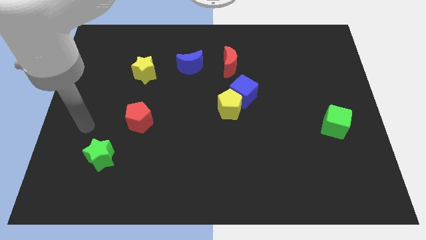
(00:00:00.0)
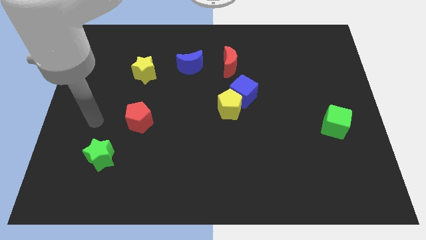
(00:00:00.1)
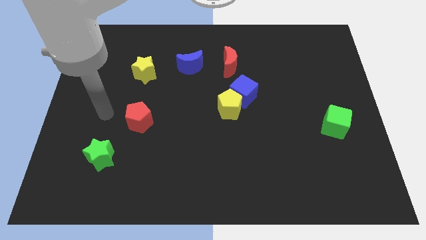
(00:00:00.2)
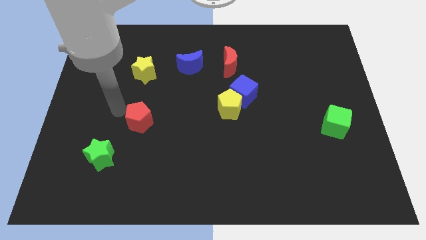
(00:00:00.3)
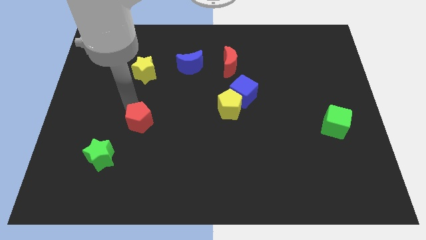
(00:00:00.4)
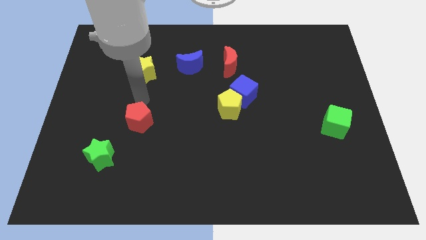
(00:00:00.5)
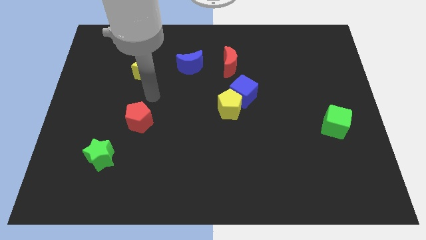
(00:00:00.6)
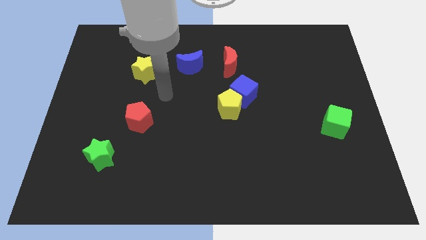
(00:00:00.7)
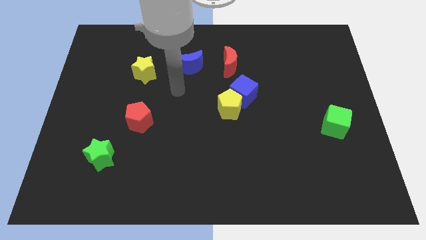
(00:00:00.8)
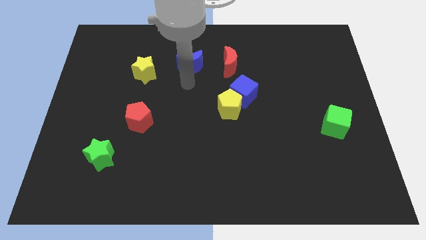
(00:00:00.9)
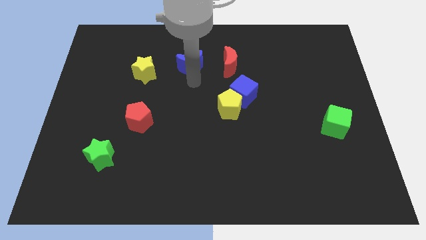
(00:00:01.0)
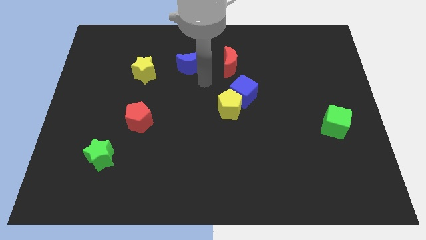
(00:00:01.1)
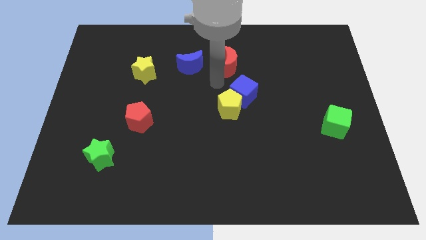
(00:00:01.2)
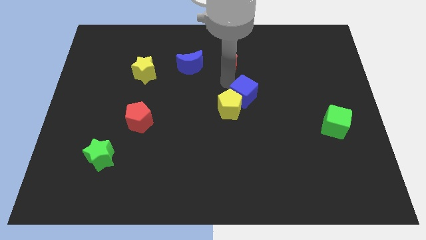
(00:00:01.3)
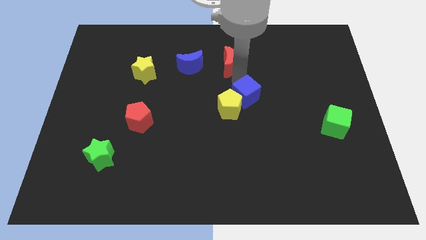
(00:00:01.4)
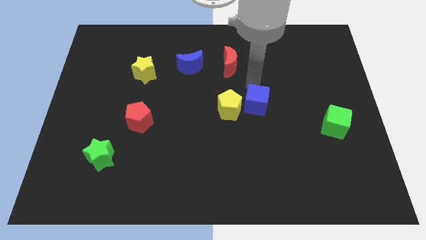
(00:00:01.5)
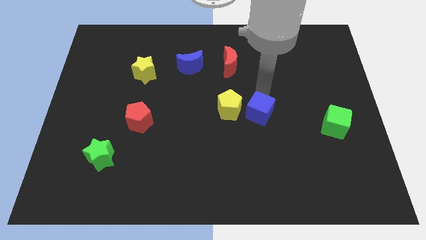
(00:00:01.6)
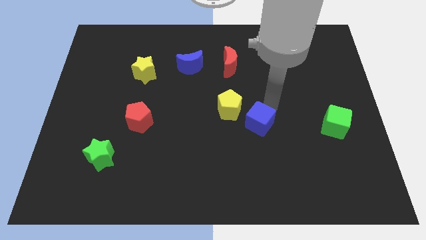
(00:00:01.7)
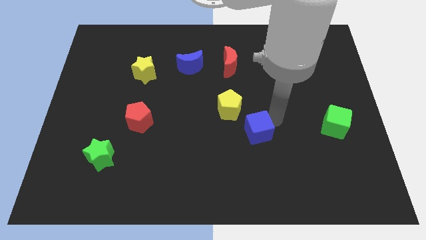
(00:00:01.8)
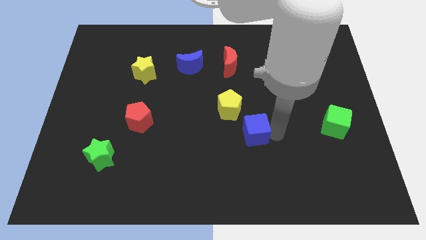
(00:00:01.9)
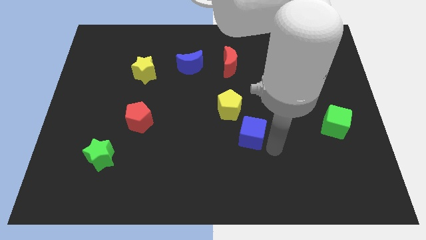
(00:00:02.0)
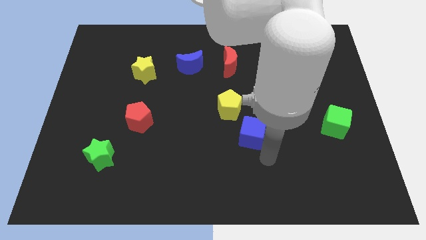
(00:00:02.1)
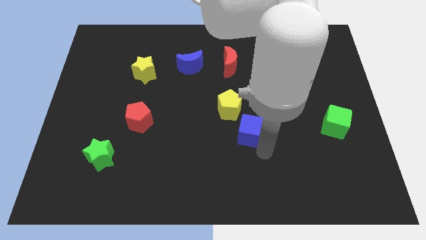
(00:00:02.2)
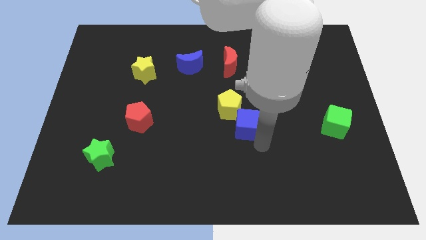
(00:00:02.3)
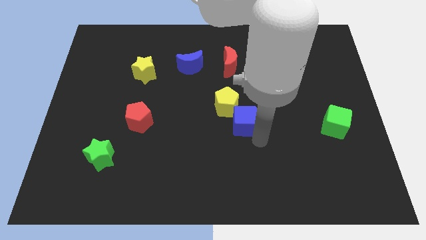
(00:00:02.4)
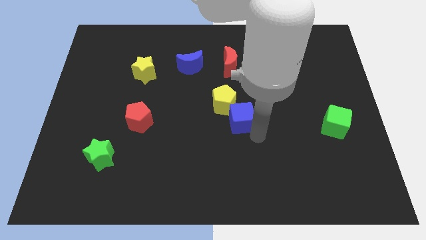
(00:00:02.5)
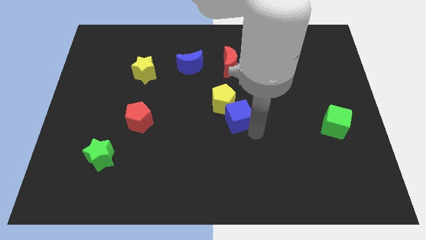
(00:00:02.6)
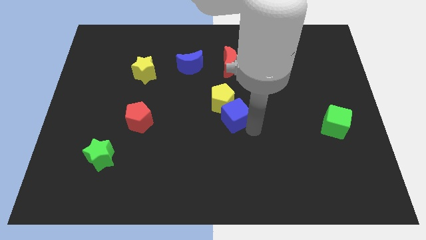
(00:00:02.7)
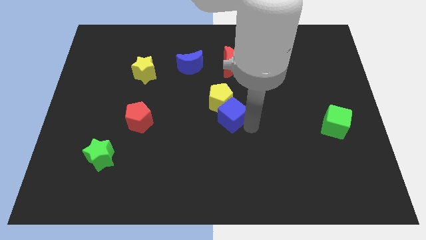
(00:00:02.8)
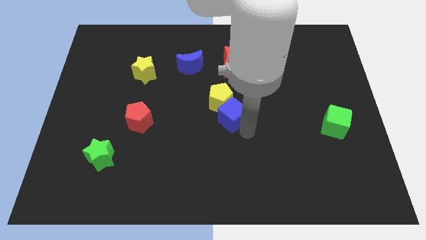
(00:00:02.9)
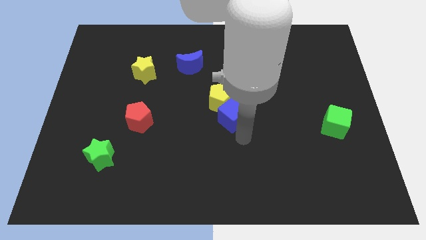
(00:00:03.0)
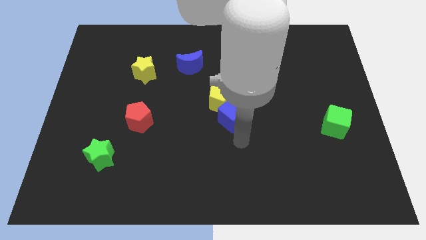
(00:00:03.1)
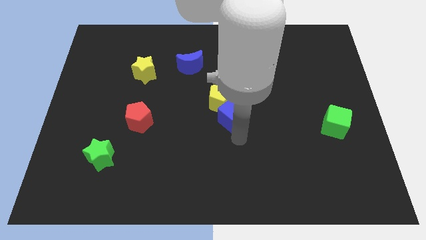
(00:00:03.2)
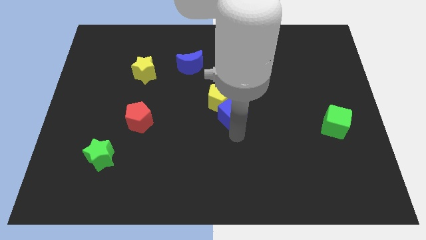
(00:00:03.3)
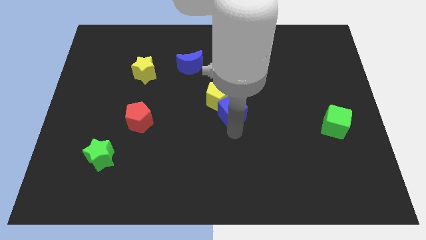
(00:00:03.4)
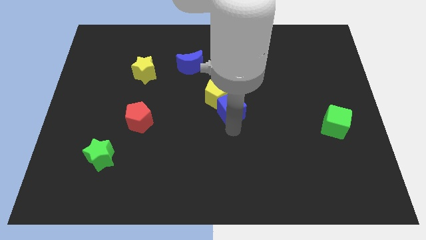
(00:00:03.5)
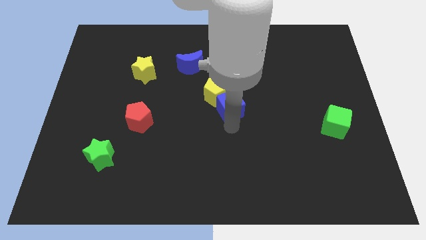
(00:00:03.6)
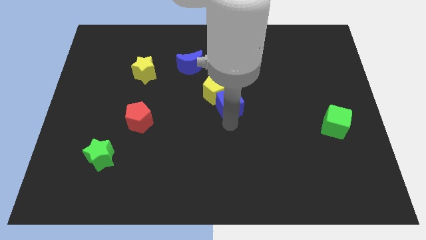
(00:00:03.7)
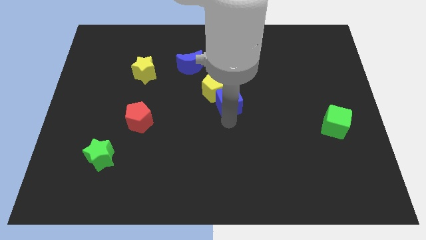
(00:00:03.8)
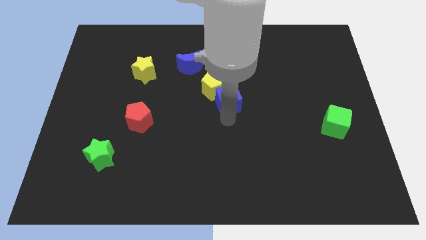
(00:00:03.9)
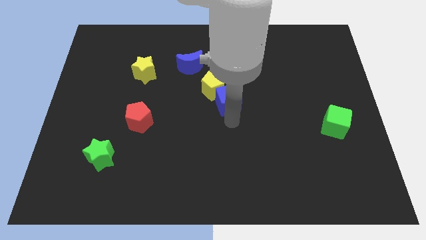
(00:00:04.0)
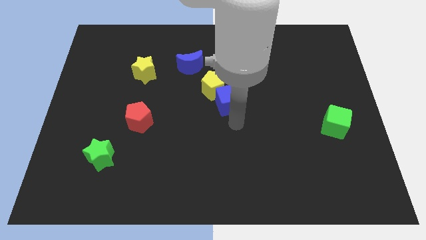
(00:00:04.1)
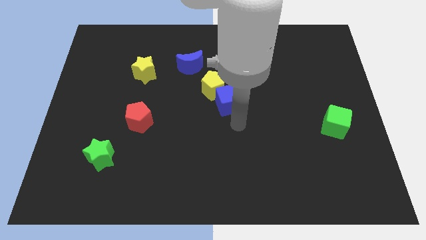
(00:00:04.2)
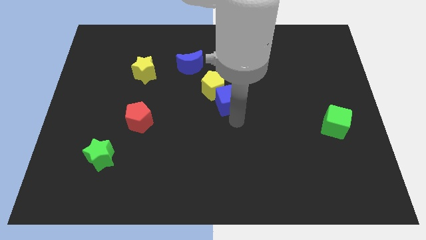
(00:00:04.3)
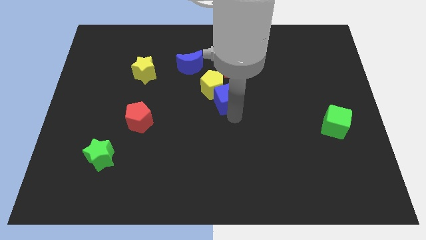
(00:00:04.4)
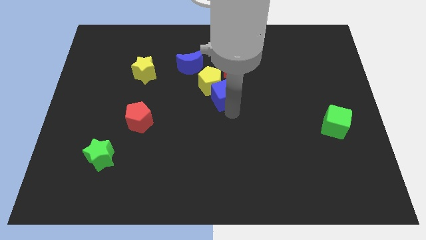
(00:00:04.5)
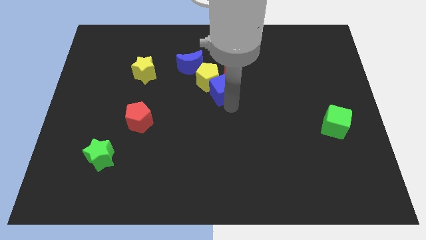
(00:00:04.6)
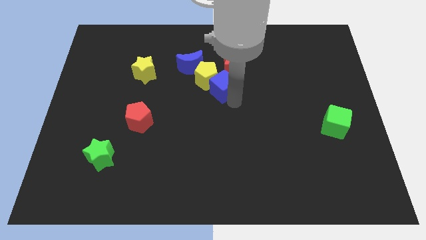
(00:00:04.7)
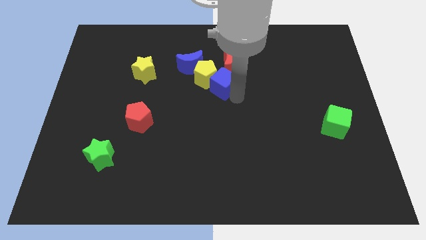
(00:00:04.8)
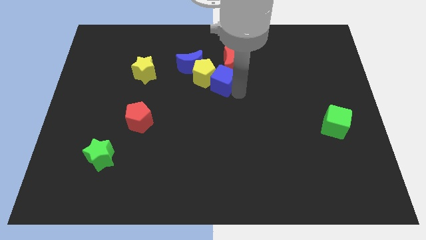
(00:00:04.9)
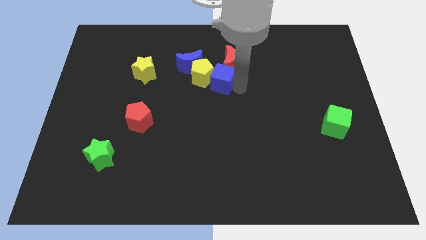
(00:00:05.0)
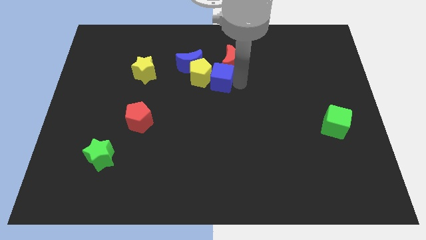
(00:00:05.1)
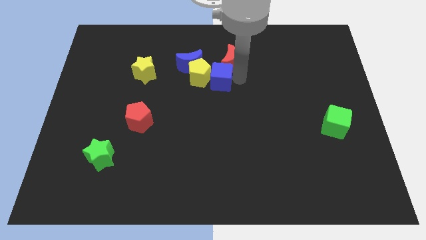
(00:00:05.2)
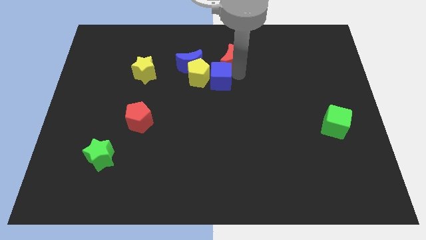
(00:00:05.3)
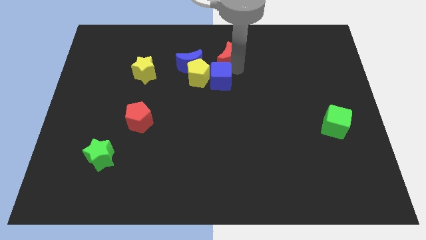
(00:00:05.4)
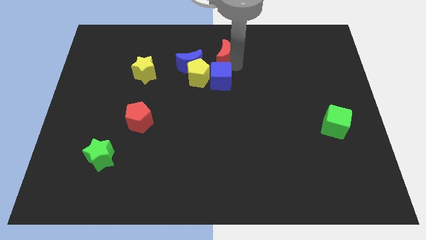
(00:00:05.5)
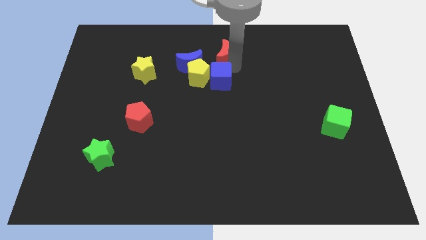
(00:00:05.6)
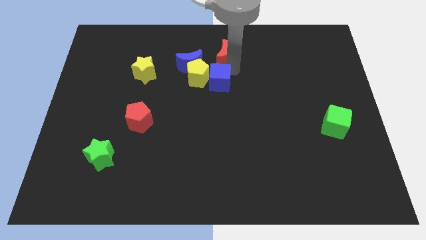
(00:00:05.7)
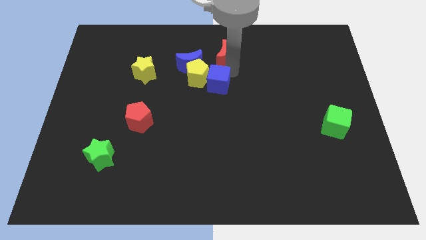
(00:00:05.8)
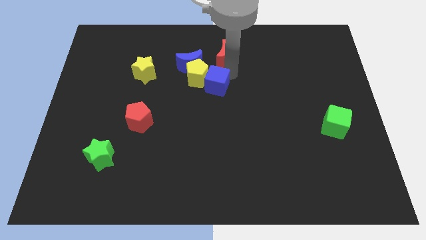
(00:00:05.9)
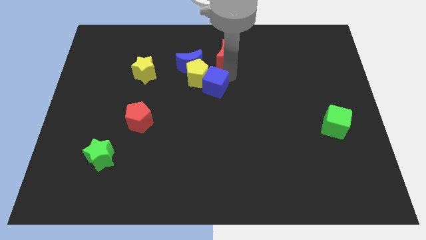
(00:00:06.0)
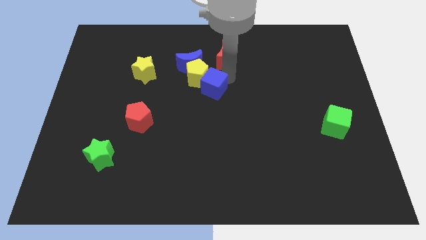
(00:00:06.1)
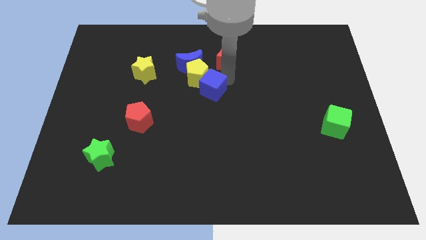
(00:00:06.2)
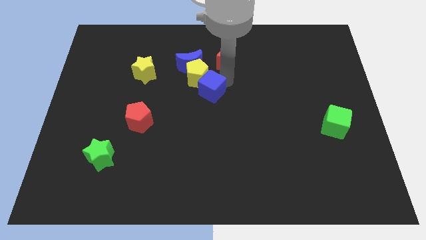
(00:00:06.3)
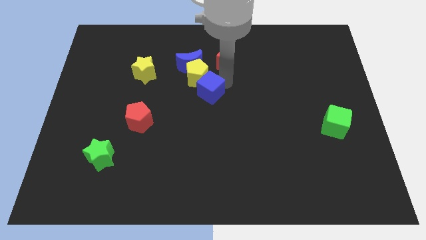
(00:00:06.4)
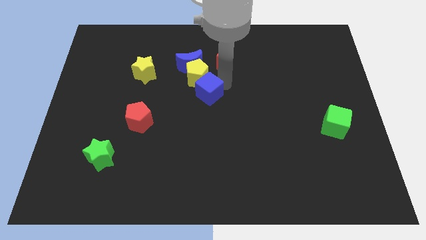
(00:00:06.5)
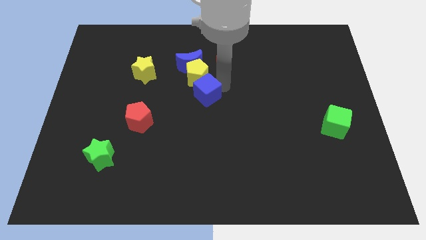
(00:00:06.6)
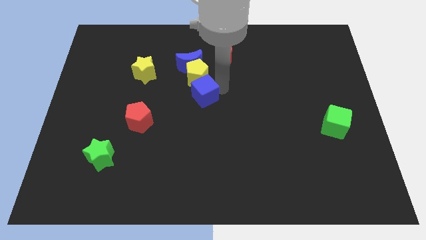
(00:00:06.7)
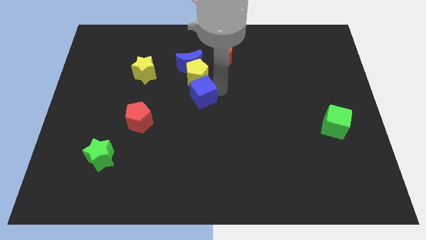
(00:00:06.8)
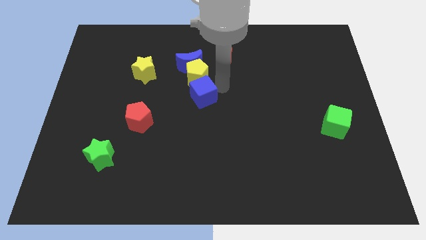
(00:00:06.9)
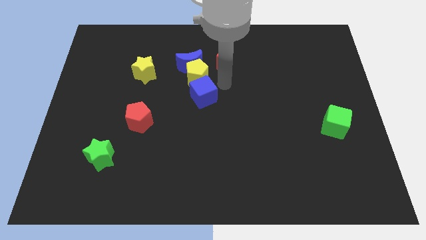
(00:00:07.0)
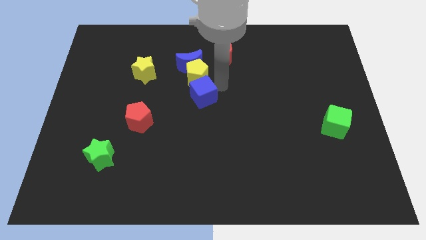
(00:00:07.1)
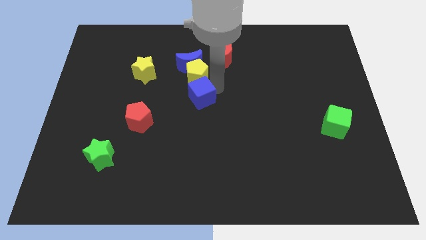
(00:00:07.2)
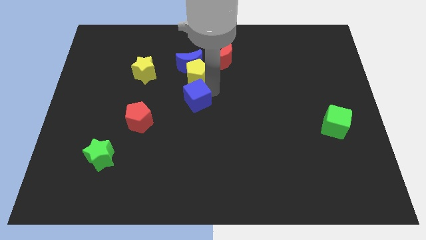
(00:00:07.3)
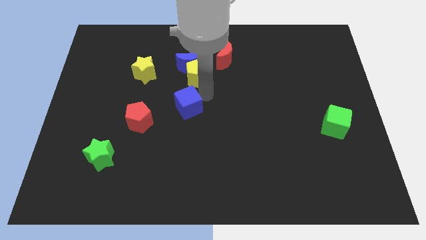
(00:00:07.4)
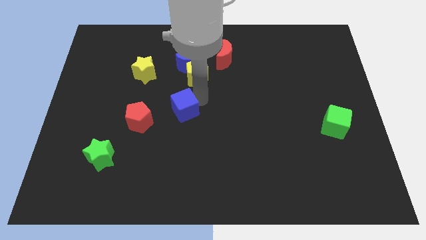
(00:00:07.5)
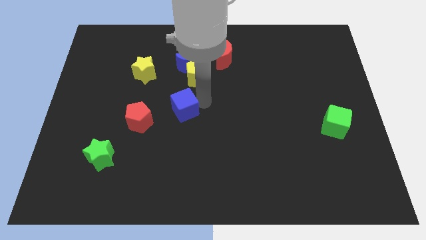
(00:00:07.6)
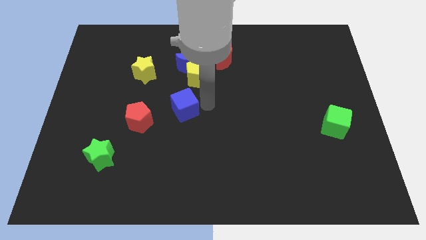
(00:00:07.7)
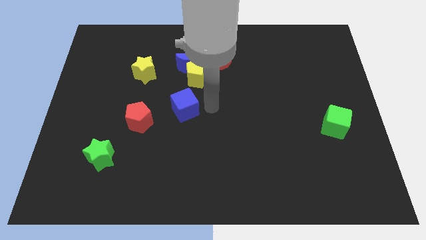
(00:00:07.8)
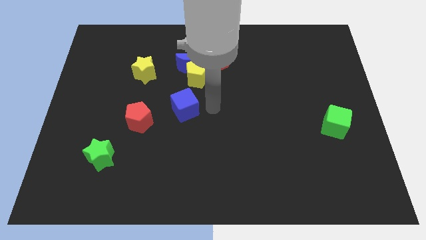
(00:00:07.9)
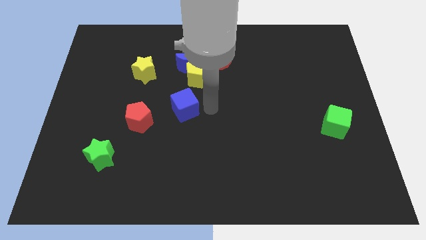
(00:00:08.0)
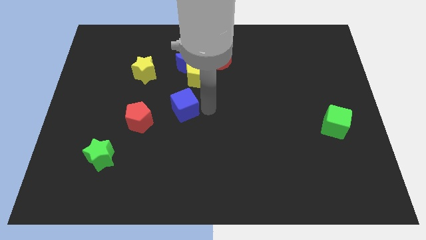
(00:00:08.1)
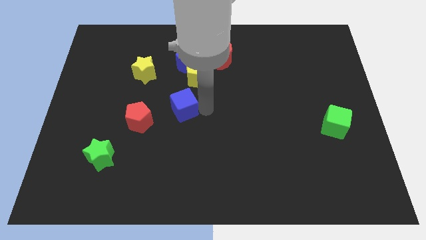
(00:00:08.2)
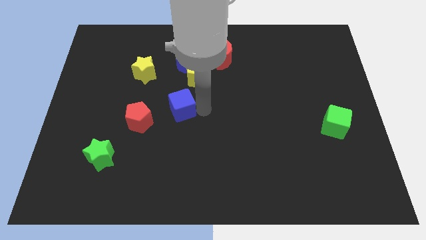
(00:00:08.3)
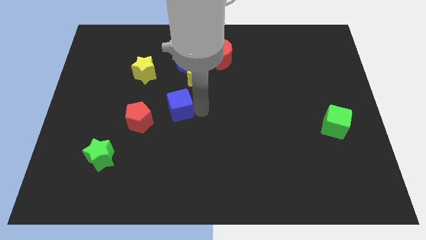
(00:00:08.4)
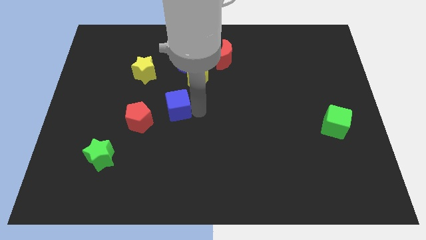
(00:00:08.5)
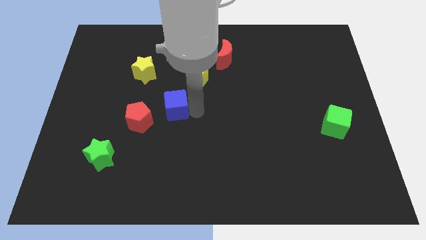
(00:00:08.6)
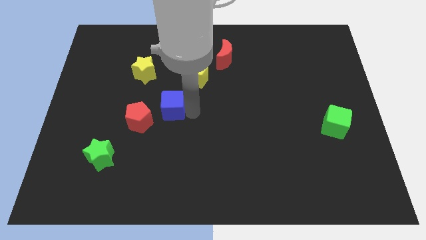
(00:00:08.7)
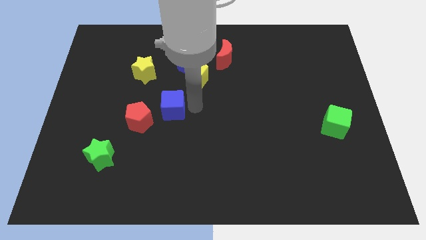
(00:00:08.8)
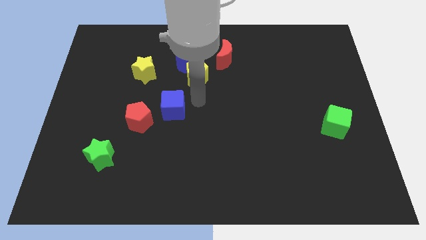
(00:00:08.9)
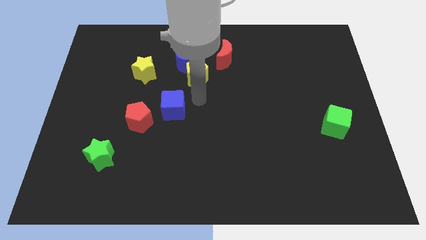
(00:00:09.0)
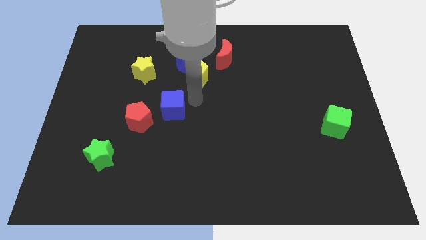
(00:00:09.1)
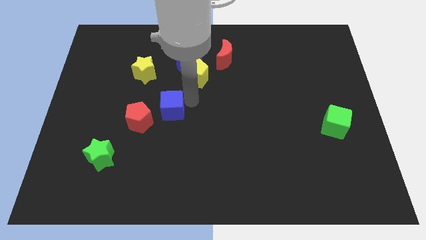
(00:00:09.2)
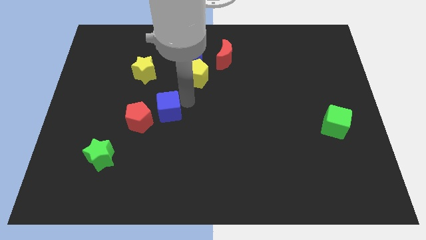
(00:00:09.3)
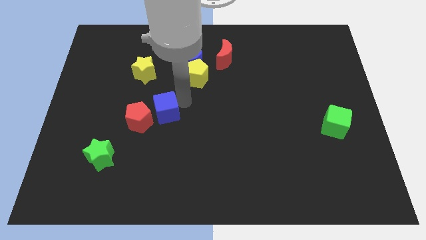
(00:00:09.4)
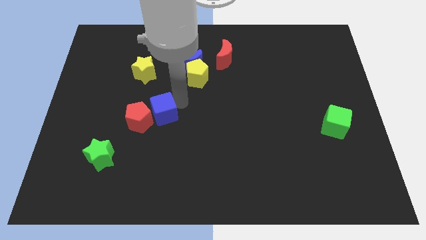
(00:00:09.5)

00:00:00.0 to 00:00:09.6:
push the blue cube close to the red pentagon
